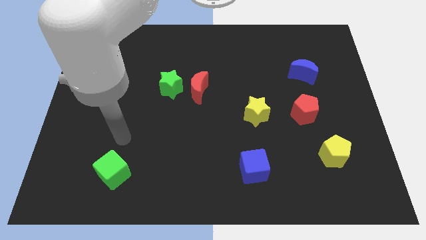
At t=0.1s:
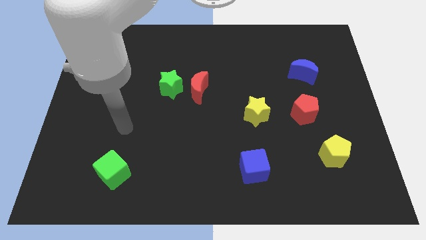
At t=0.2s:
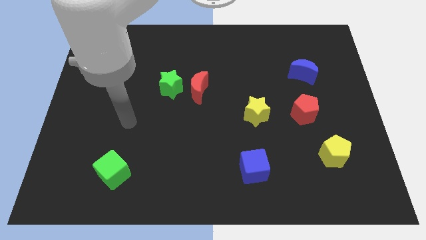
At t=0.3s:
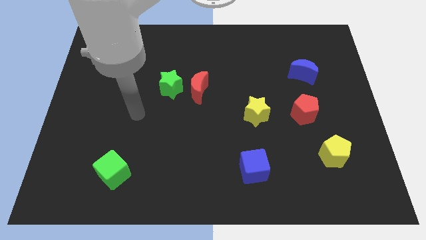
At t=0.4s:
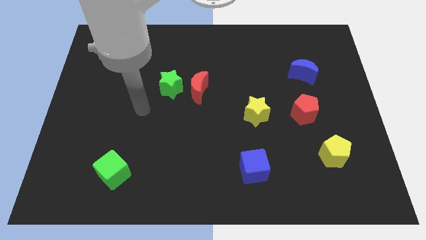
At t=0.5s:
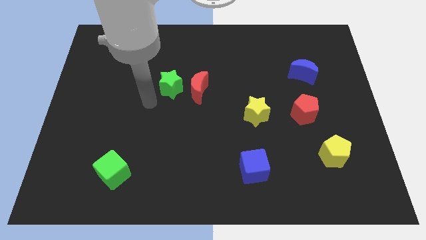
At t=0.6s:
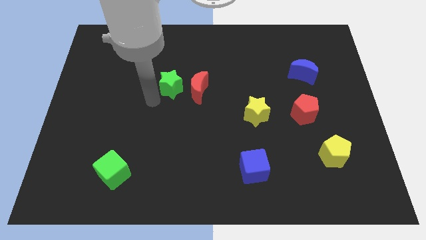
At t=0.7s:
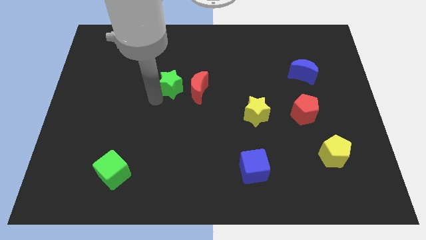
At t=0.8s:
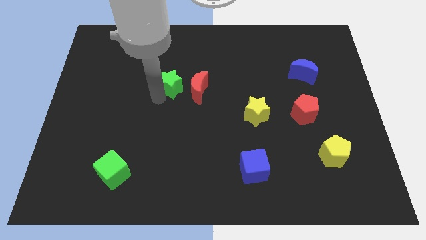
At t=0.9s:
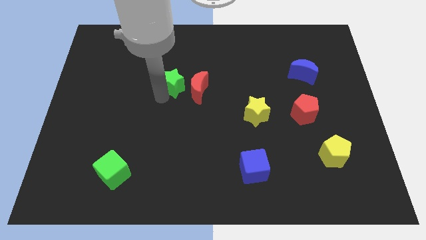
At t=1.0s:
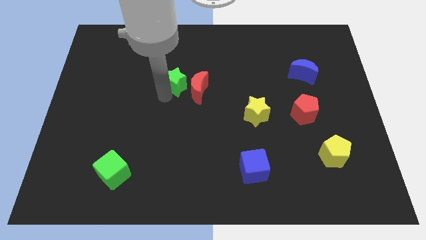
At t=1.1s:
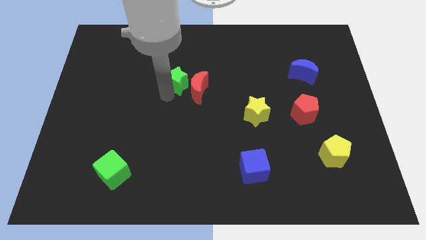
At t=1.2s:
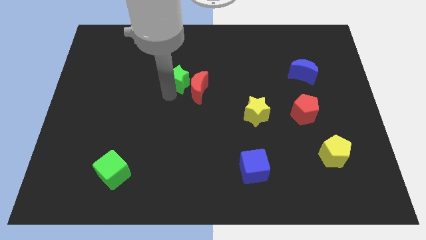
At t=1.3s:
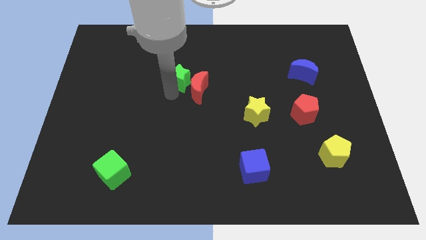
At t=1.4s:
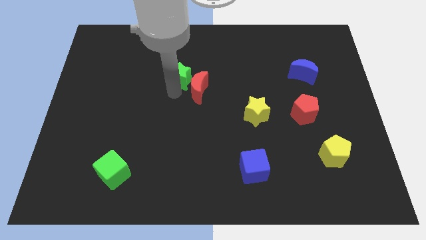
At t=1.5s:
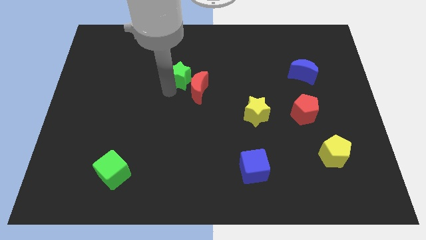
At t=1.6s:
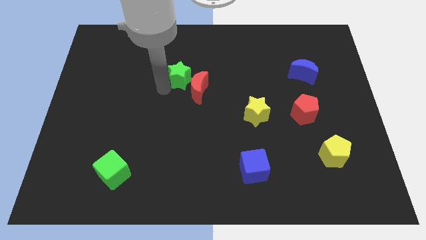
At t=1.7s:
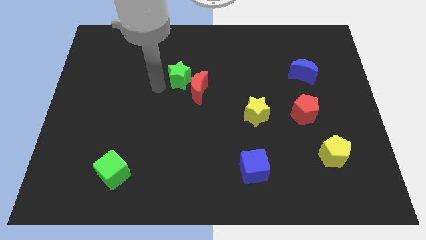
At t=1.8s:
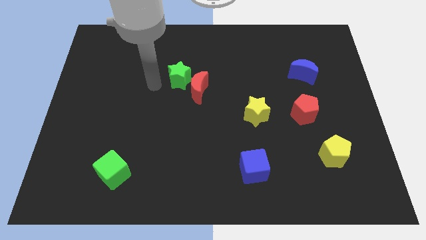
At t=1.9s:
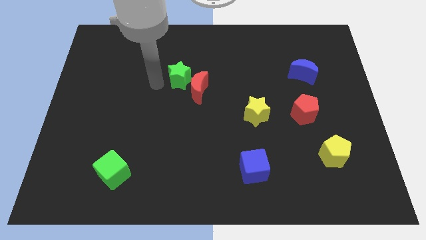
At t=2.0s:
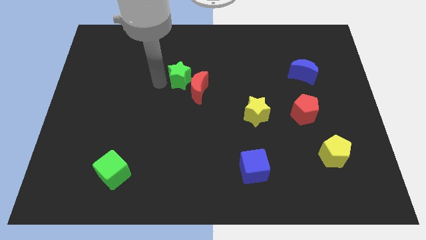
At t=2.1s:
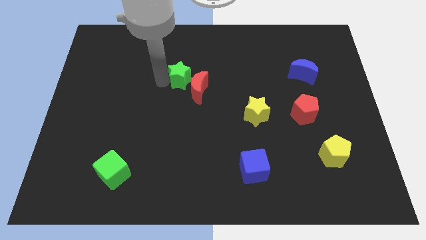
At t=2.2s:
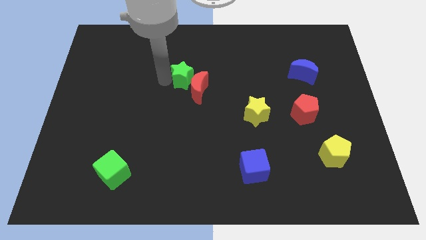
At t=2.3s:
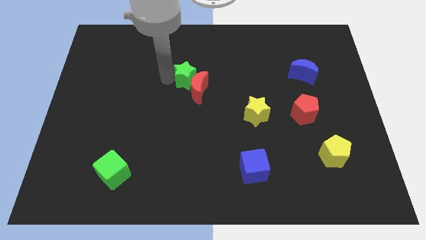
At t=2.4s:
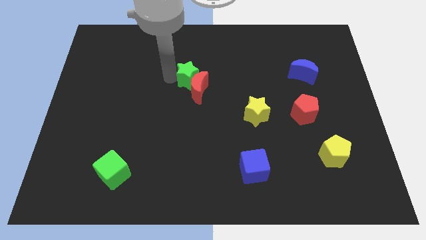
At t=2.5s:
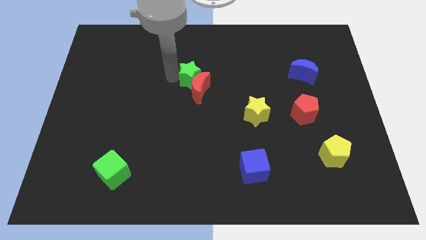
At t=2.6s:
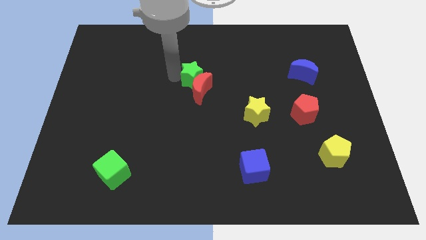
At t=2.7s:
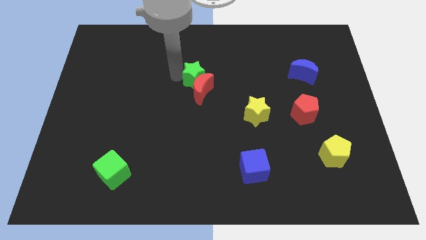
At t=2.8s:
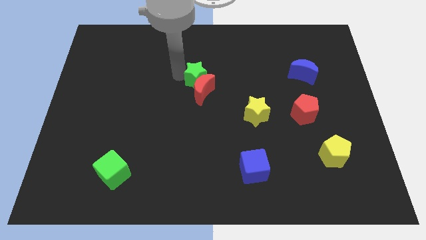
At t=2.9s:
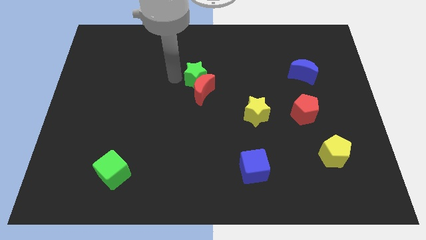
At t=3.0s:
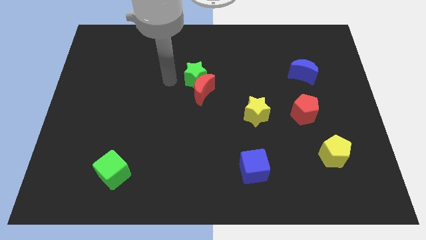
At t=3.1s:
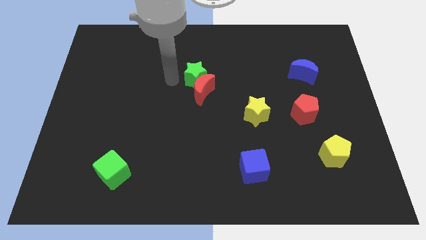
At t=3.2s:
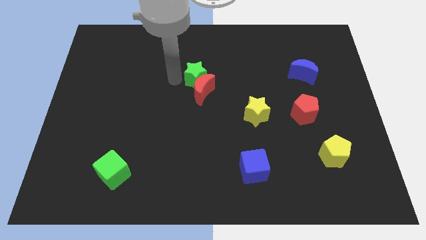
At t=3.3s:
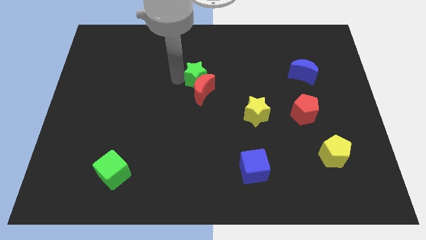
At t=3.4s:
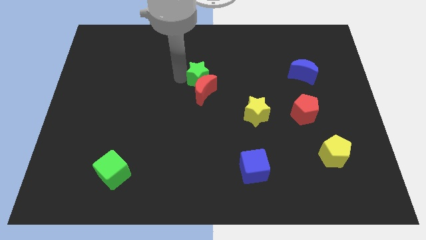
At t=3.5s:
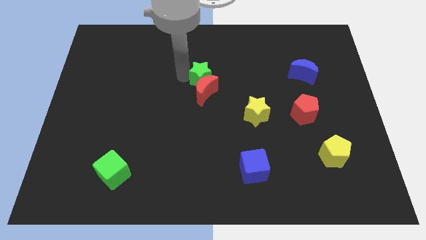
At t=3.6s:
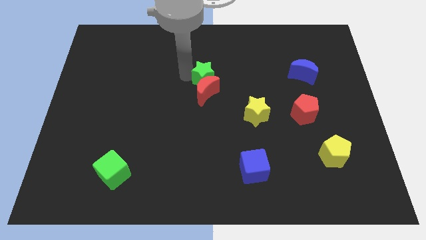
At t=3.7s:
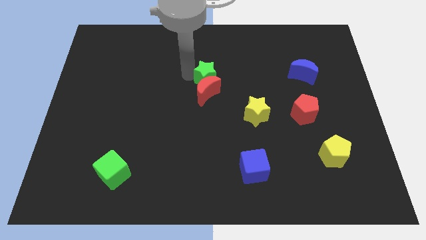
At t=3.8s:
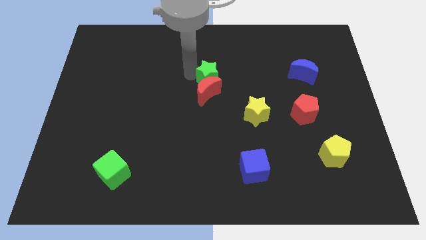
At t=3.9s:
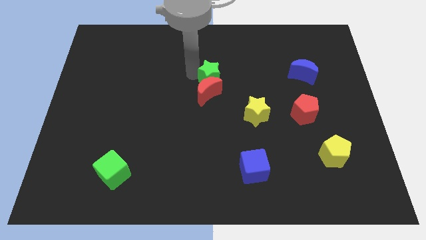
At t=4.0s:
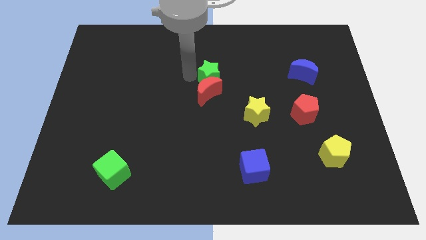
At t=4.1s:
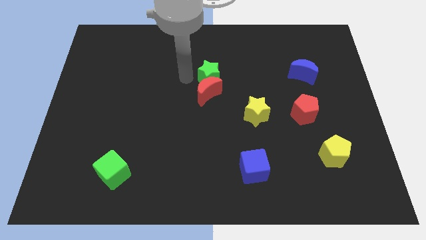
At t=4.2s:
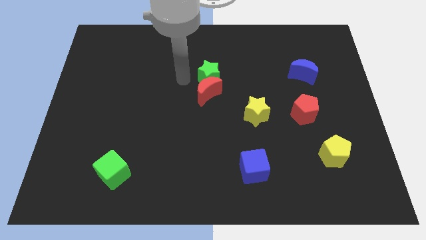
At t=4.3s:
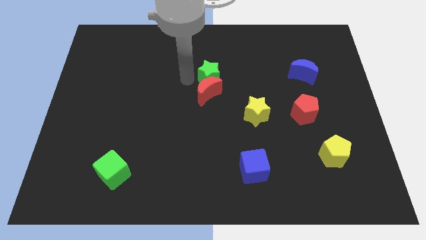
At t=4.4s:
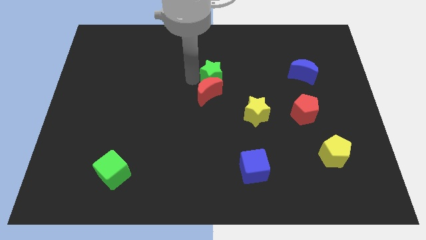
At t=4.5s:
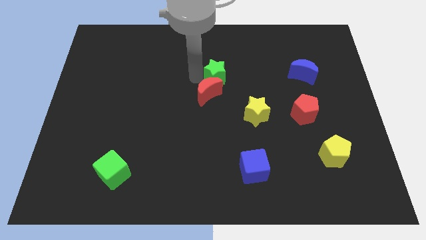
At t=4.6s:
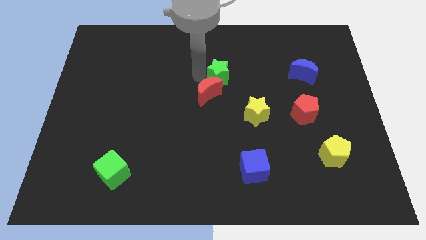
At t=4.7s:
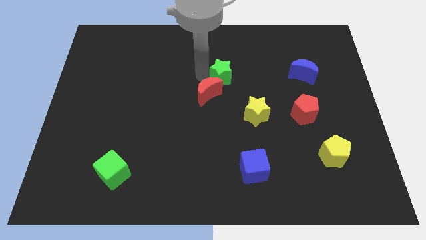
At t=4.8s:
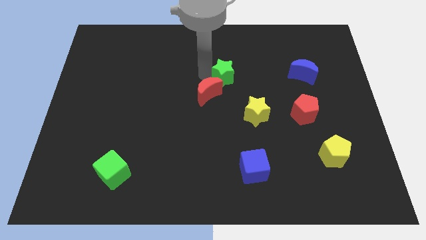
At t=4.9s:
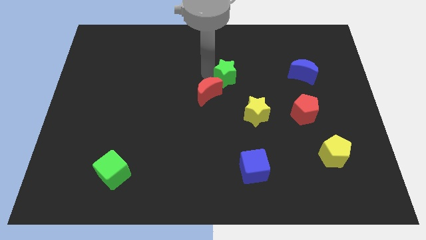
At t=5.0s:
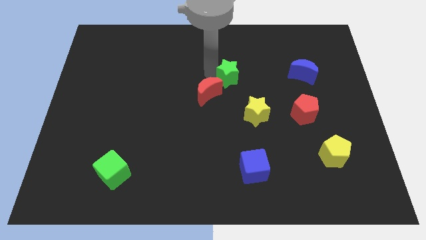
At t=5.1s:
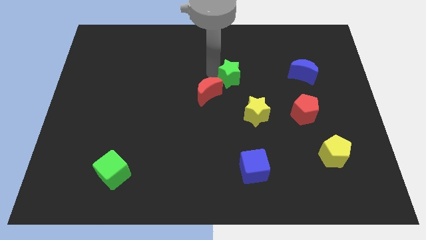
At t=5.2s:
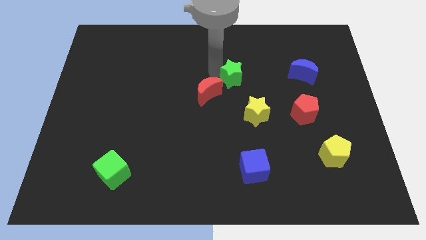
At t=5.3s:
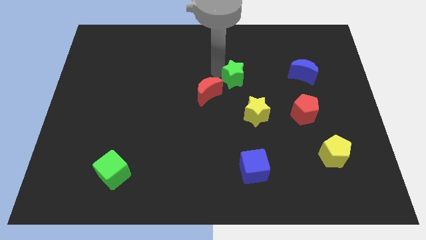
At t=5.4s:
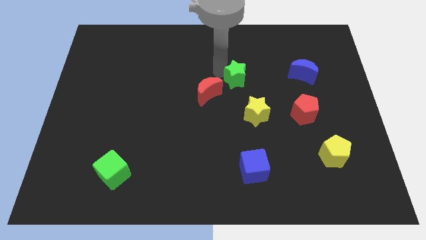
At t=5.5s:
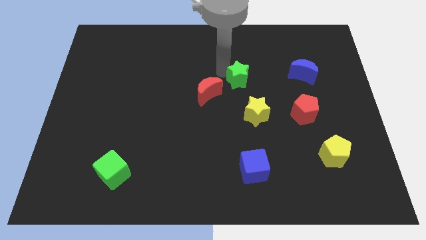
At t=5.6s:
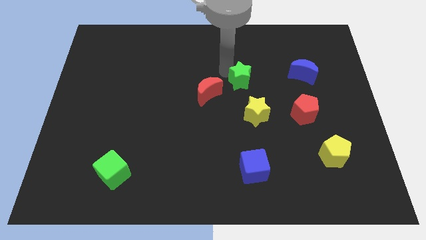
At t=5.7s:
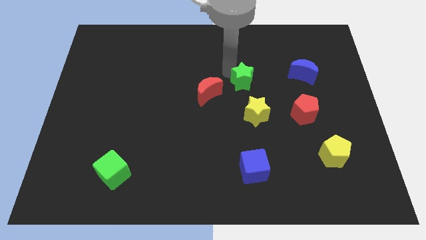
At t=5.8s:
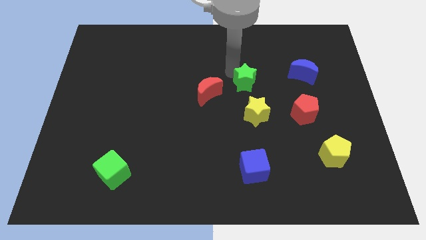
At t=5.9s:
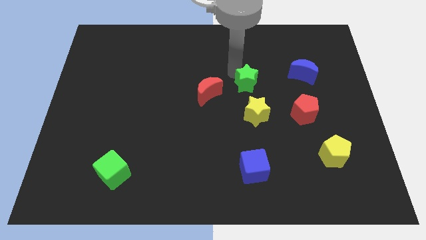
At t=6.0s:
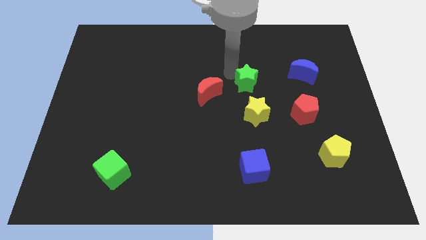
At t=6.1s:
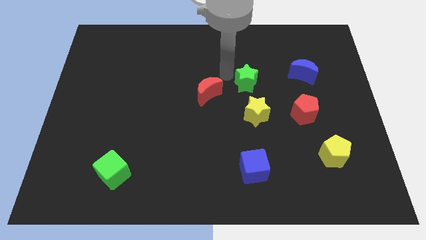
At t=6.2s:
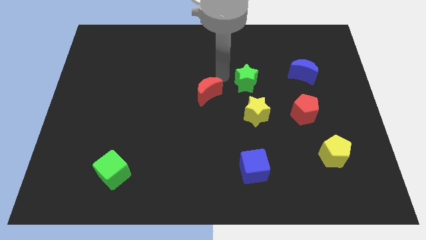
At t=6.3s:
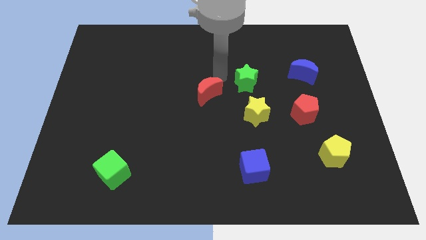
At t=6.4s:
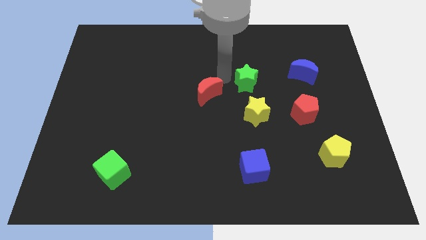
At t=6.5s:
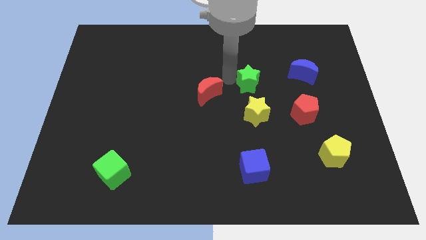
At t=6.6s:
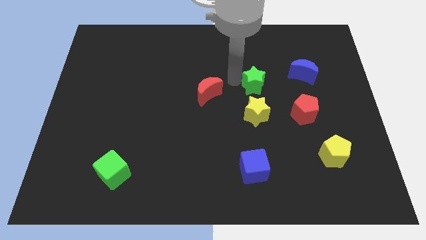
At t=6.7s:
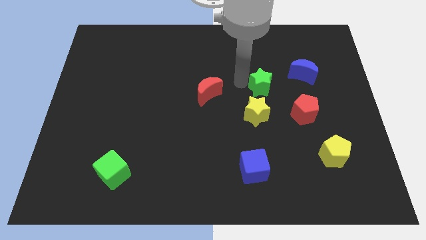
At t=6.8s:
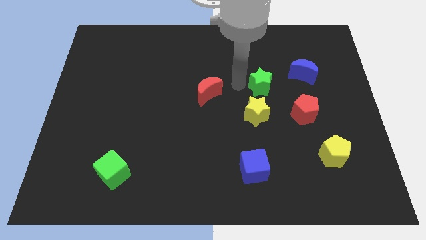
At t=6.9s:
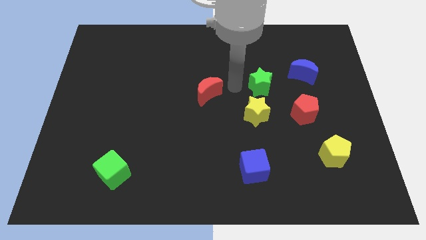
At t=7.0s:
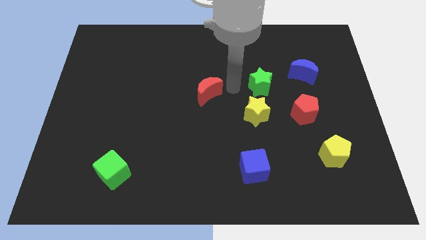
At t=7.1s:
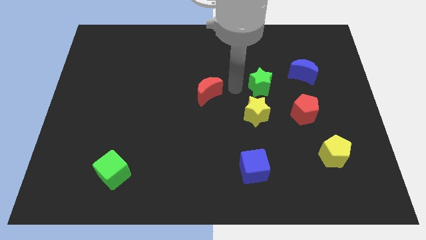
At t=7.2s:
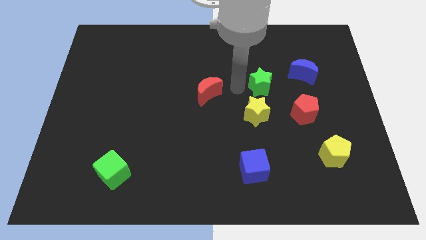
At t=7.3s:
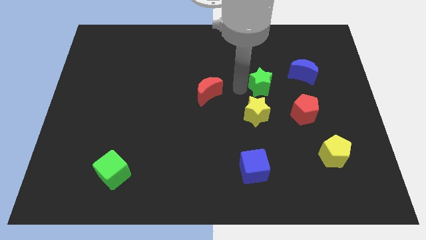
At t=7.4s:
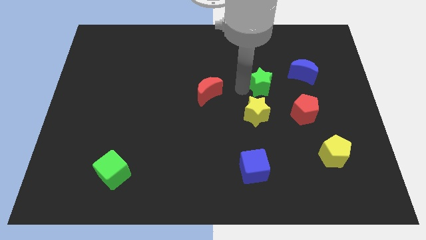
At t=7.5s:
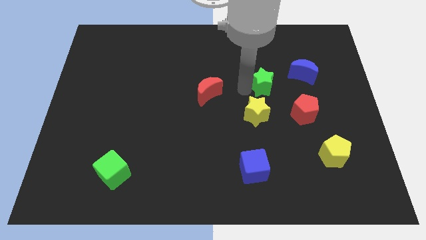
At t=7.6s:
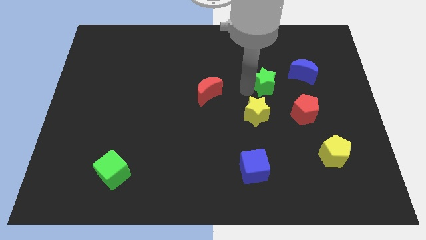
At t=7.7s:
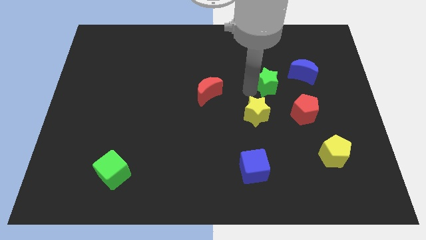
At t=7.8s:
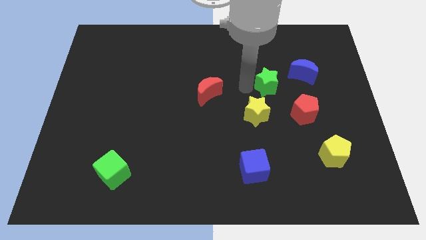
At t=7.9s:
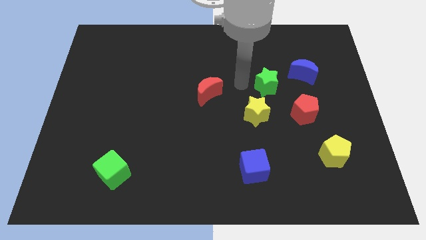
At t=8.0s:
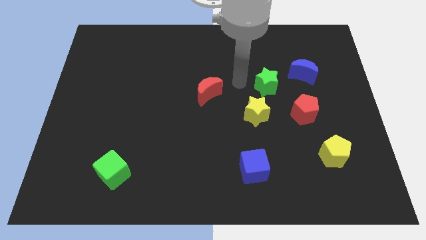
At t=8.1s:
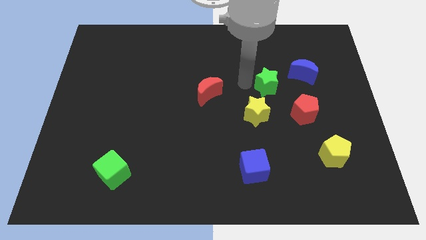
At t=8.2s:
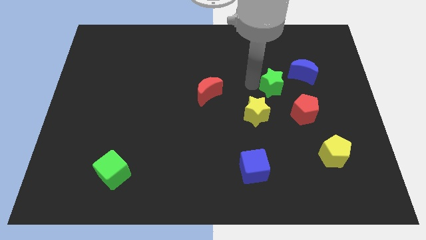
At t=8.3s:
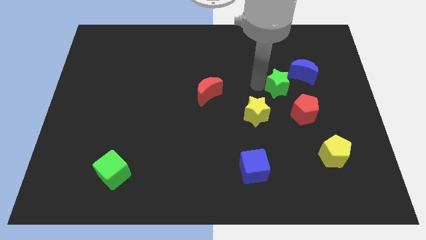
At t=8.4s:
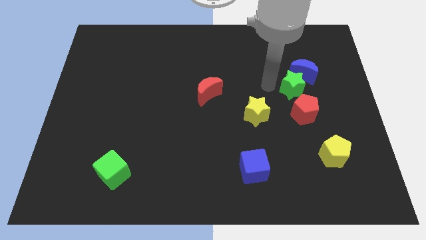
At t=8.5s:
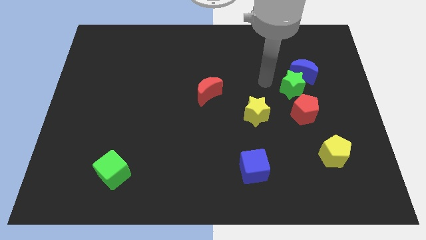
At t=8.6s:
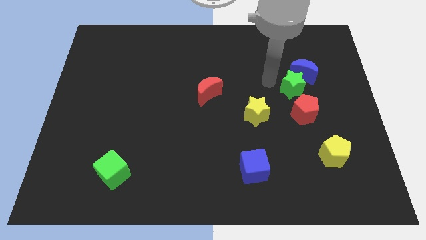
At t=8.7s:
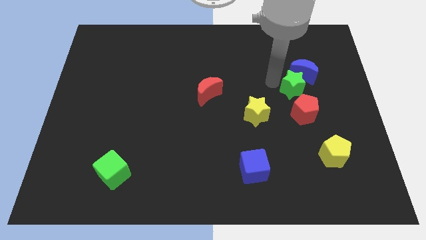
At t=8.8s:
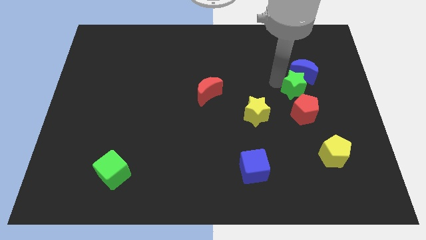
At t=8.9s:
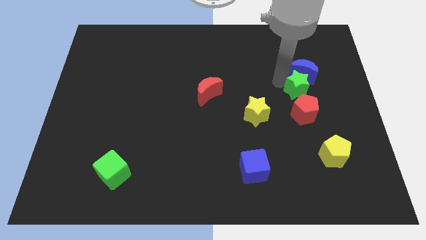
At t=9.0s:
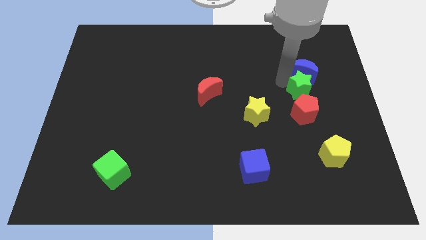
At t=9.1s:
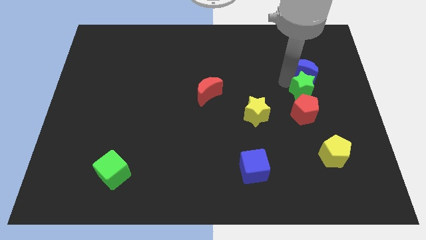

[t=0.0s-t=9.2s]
slide the green star diagonally up and to the right of the red pentagon
